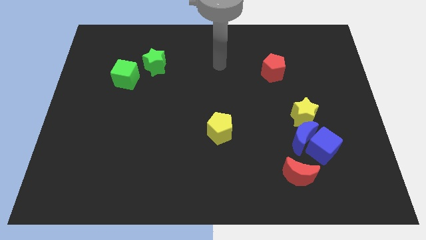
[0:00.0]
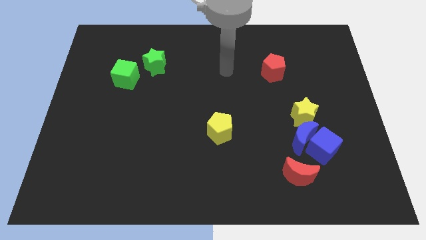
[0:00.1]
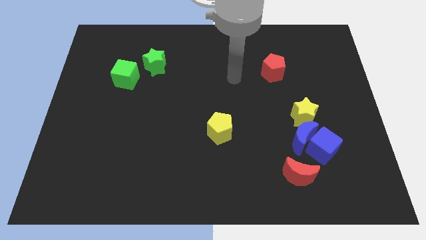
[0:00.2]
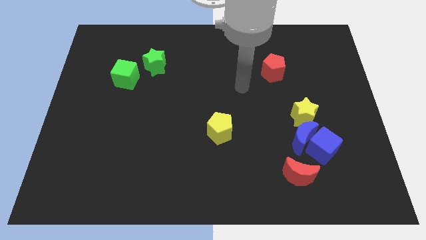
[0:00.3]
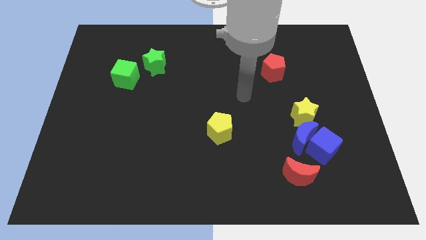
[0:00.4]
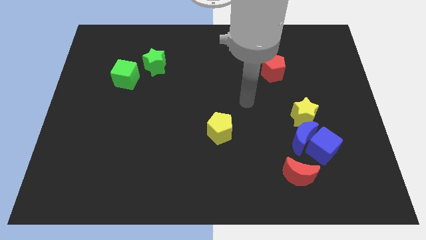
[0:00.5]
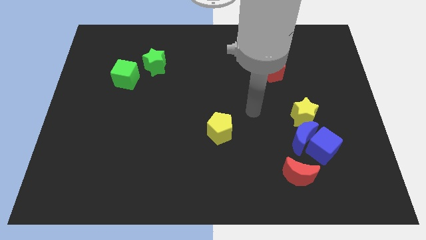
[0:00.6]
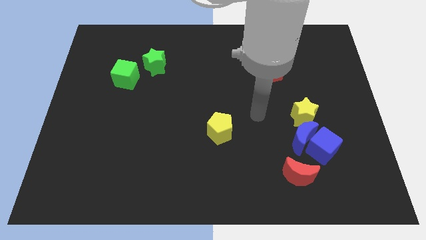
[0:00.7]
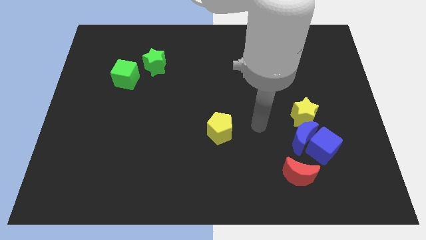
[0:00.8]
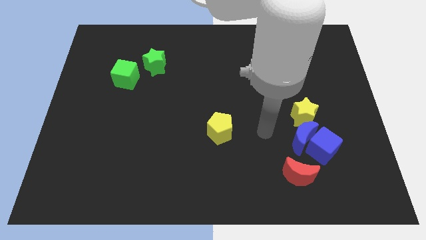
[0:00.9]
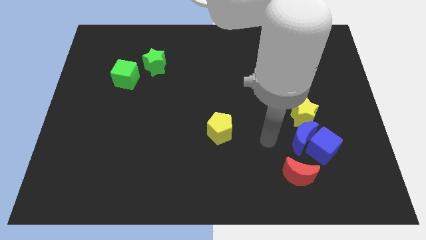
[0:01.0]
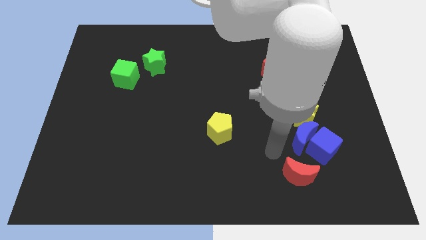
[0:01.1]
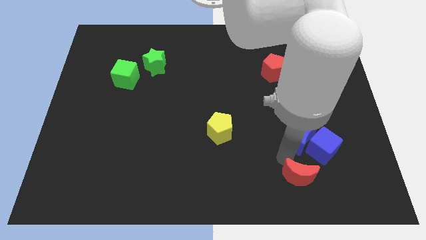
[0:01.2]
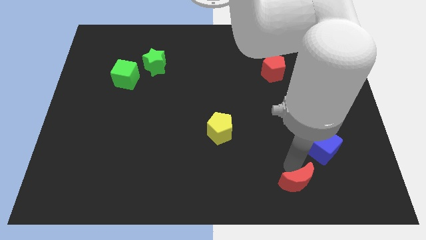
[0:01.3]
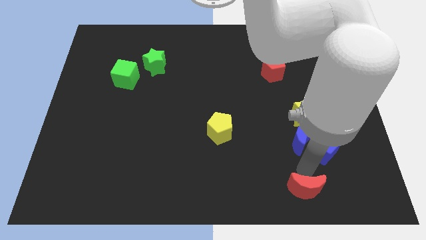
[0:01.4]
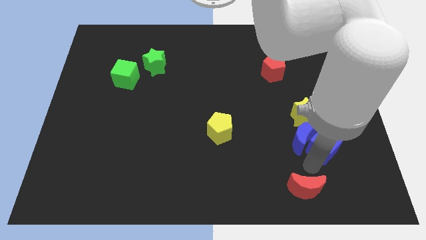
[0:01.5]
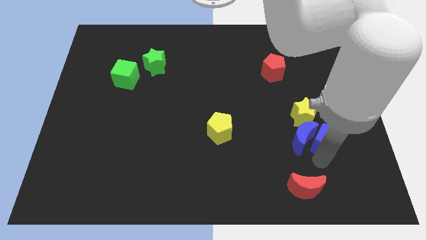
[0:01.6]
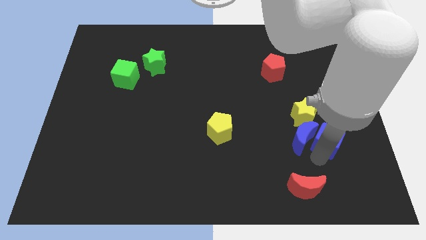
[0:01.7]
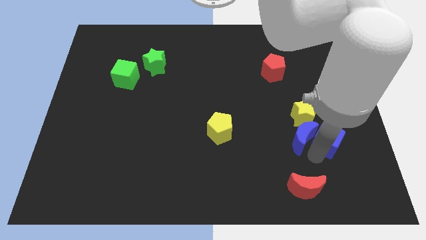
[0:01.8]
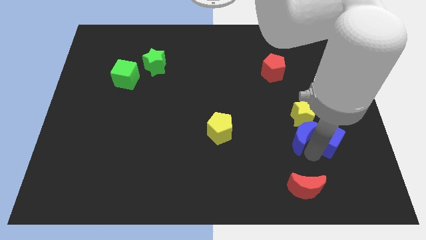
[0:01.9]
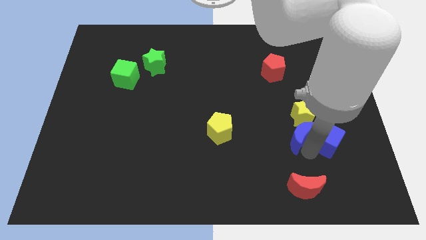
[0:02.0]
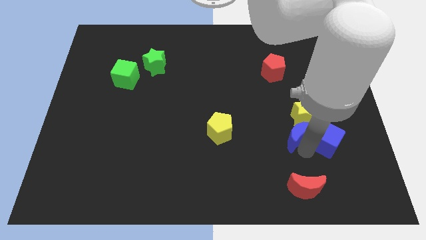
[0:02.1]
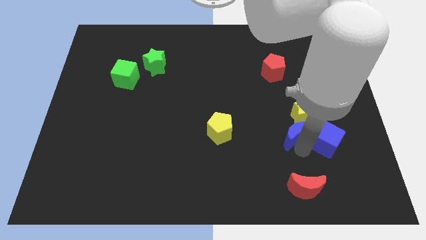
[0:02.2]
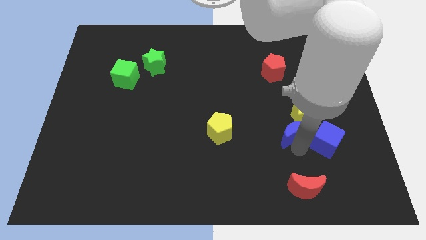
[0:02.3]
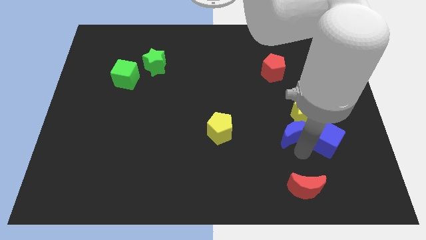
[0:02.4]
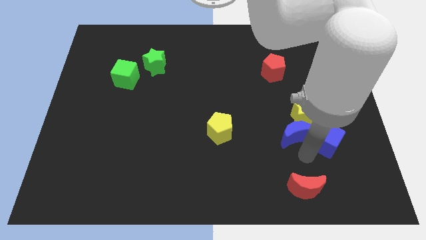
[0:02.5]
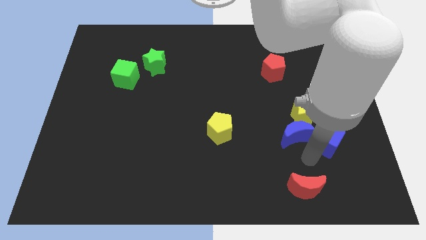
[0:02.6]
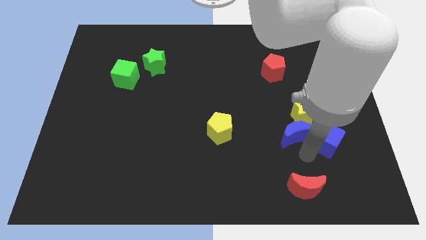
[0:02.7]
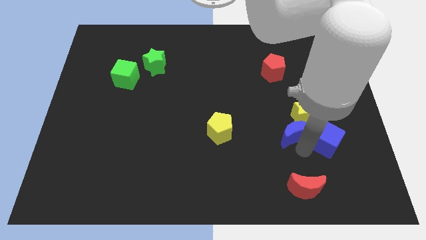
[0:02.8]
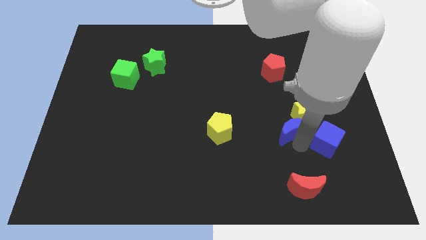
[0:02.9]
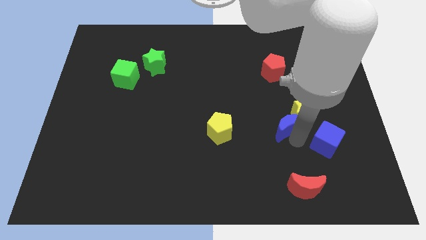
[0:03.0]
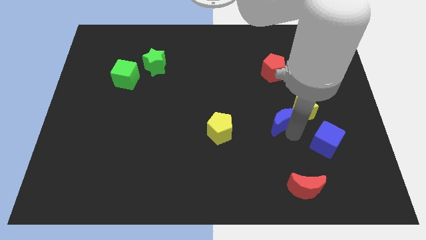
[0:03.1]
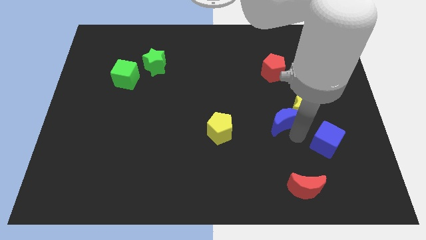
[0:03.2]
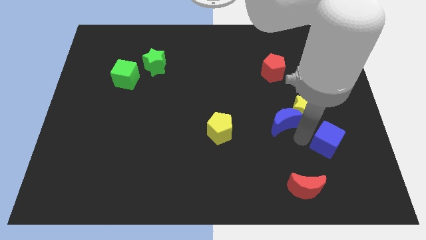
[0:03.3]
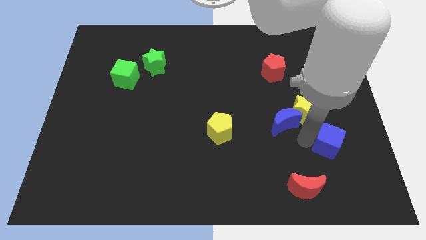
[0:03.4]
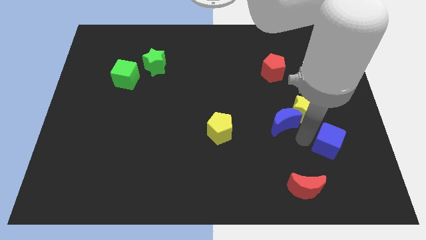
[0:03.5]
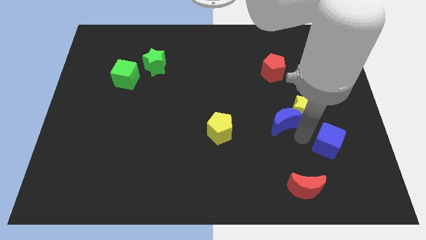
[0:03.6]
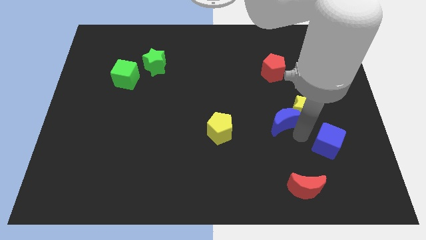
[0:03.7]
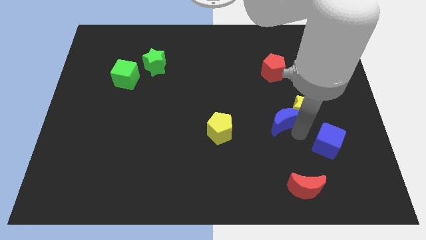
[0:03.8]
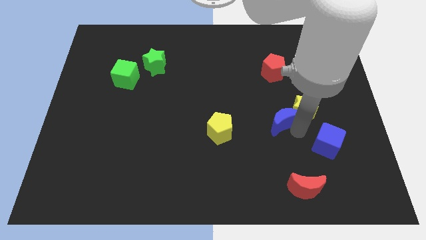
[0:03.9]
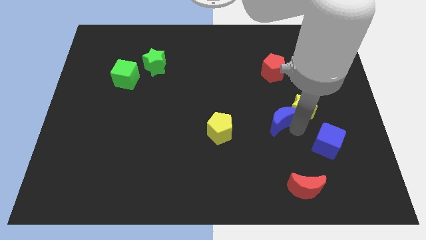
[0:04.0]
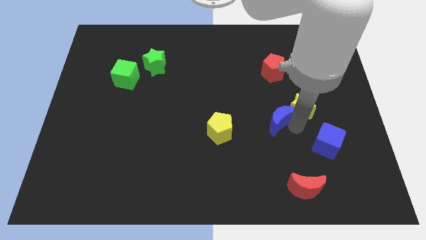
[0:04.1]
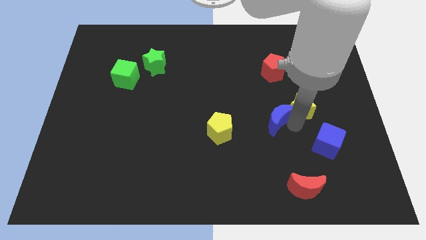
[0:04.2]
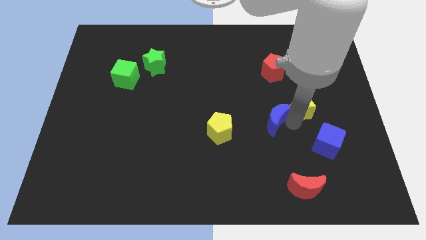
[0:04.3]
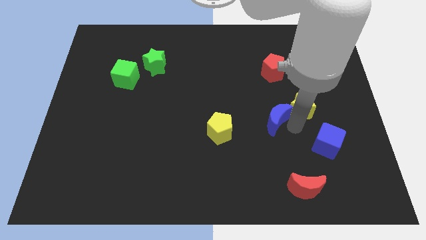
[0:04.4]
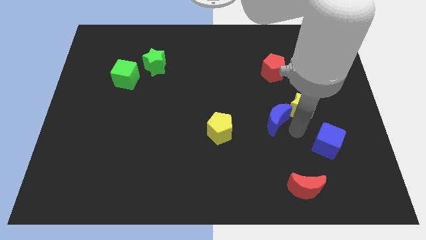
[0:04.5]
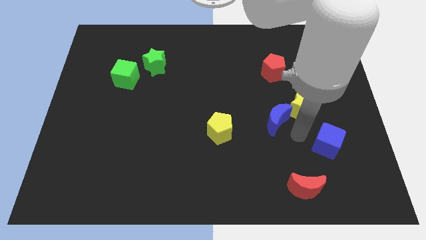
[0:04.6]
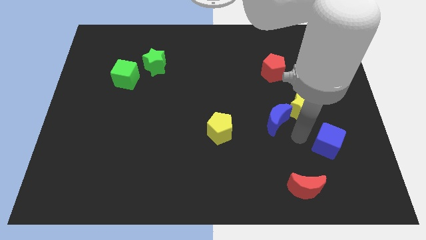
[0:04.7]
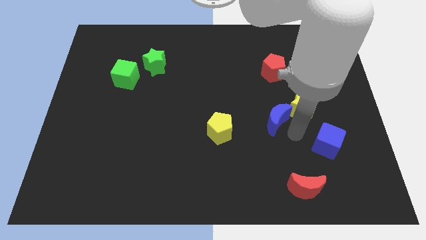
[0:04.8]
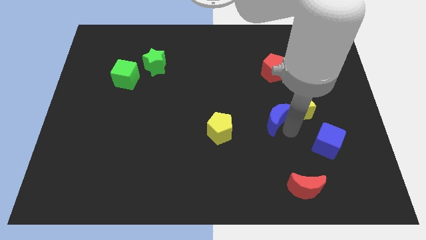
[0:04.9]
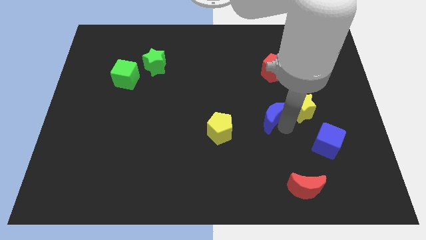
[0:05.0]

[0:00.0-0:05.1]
pull the blue moon apart from the clump

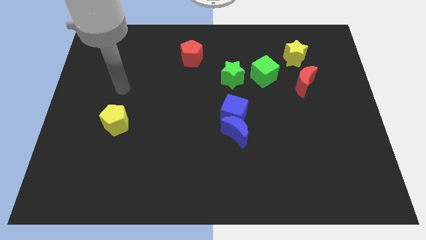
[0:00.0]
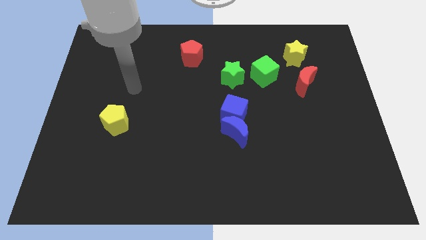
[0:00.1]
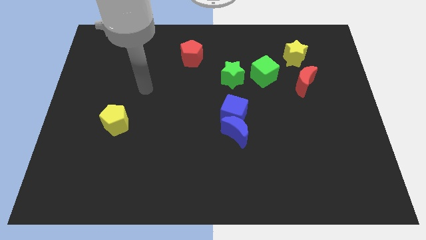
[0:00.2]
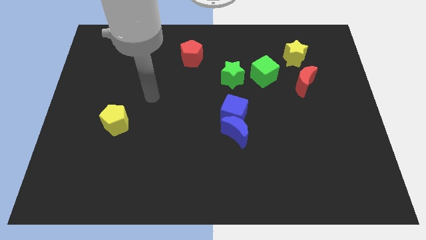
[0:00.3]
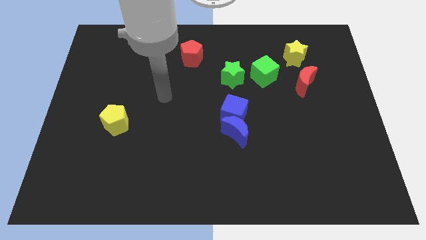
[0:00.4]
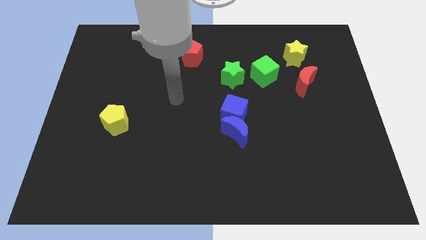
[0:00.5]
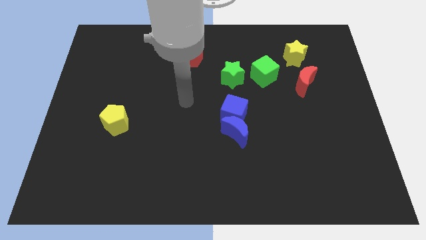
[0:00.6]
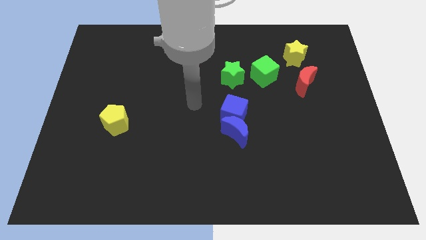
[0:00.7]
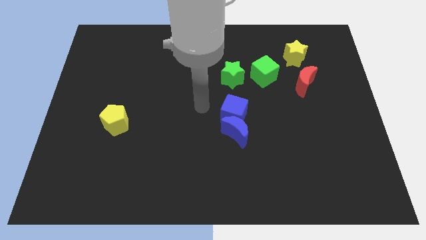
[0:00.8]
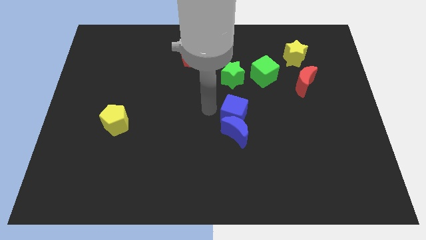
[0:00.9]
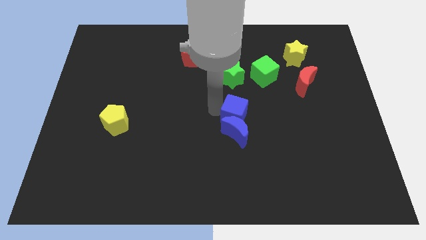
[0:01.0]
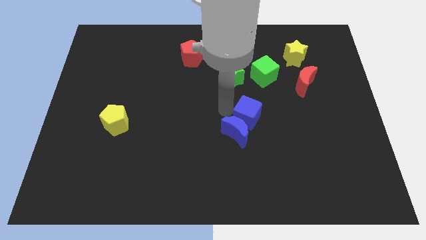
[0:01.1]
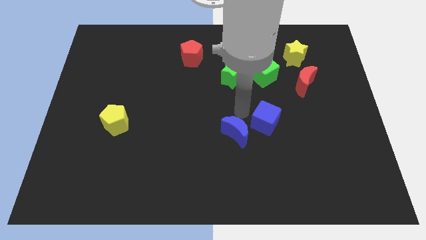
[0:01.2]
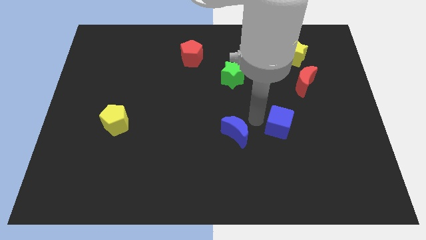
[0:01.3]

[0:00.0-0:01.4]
pull the blue moon apart from the blue cube

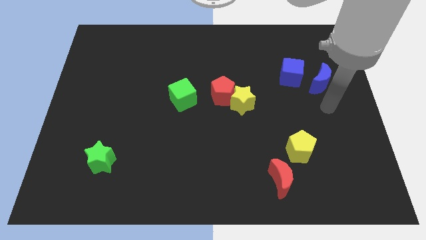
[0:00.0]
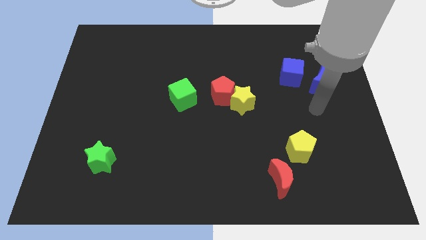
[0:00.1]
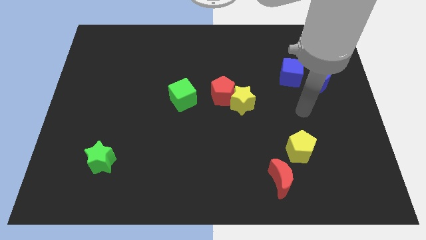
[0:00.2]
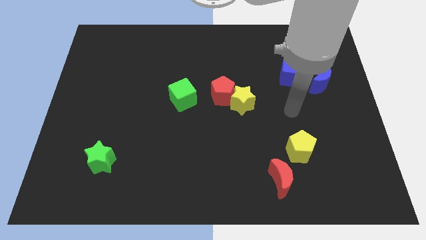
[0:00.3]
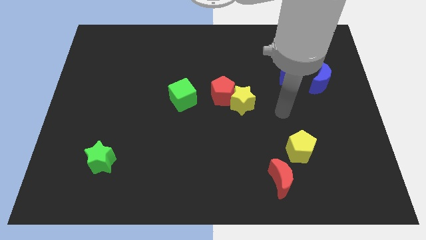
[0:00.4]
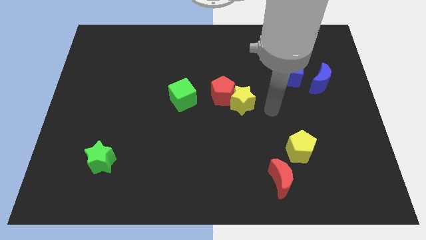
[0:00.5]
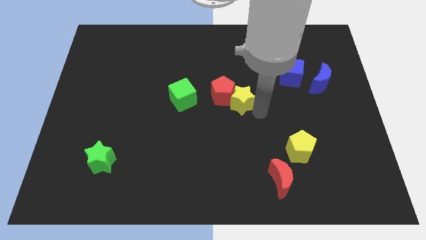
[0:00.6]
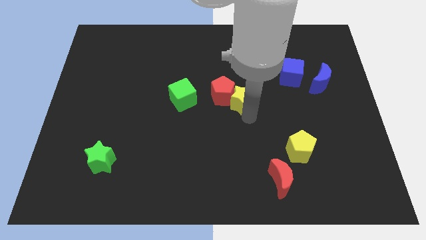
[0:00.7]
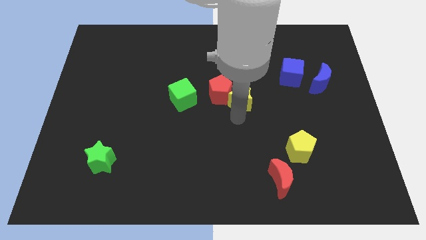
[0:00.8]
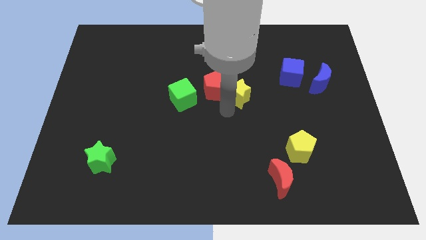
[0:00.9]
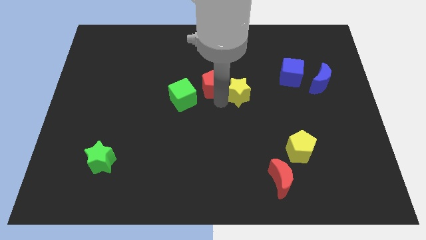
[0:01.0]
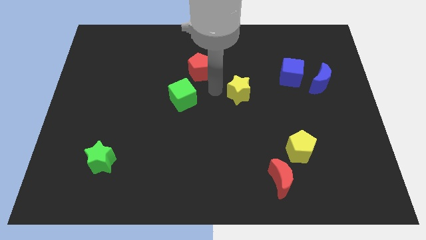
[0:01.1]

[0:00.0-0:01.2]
pull the yellow star apart from the red pentagon

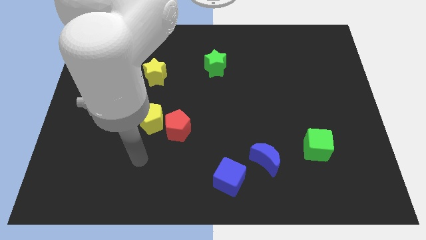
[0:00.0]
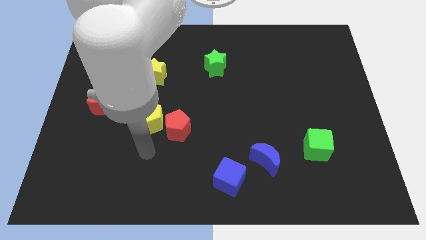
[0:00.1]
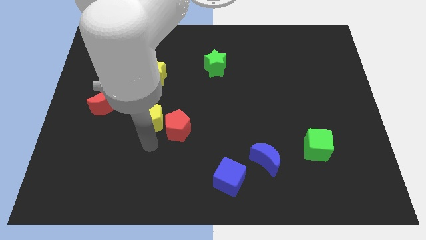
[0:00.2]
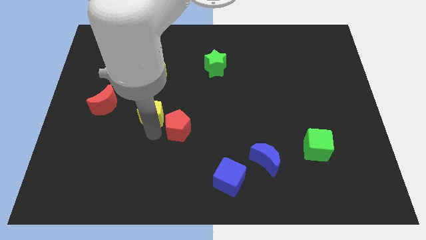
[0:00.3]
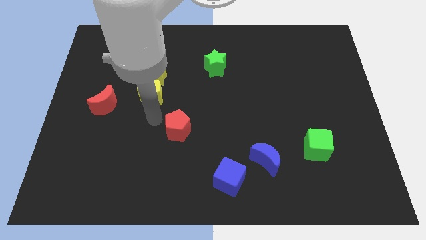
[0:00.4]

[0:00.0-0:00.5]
move the red pentagon away from the yellow pentagon

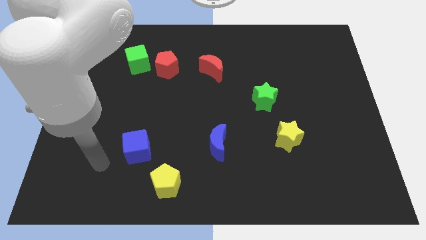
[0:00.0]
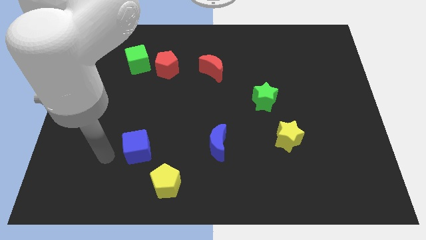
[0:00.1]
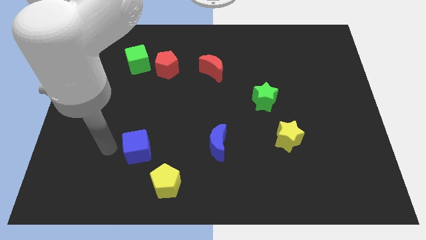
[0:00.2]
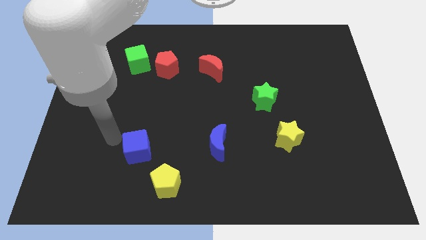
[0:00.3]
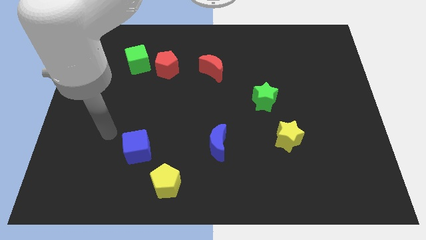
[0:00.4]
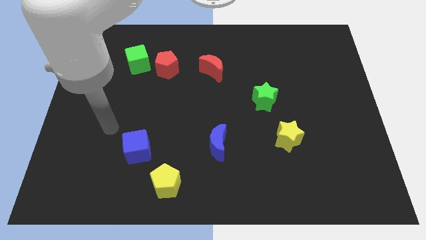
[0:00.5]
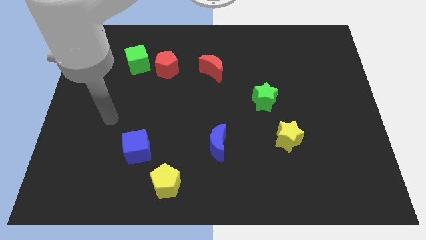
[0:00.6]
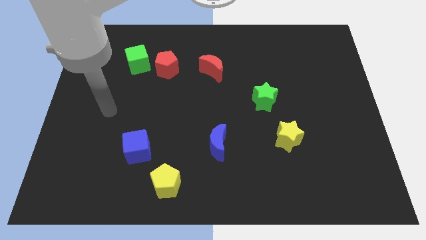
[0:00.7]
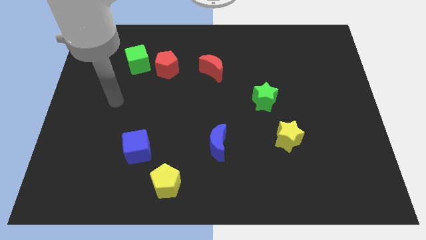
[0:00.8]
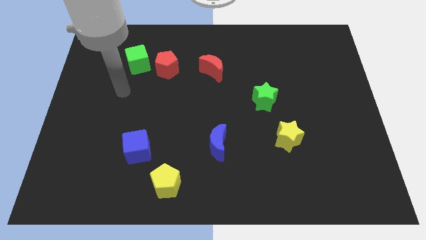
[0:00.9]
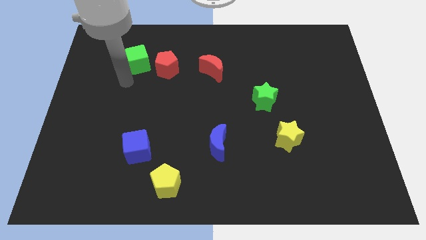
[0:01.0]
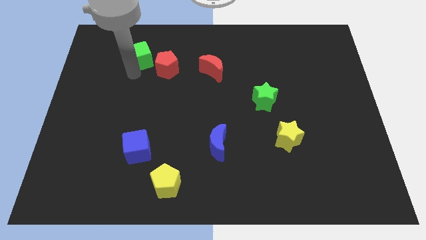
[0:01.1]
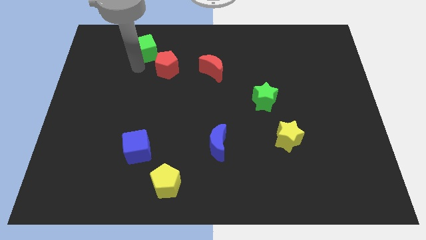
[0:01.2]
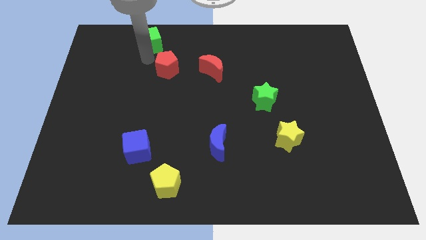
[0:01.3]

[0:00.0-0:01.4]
move the red pentagon away from the green cube
